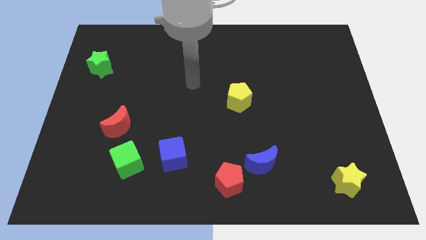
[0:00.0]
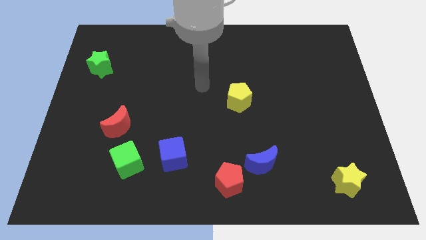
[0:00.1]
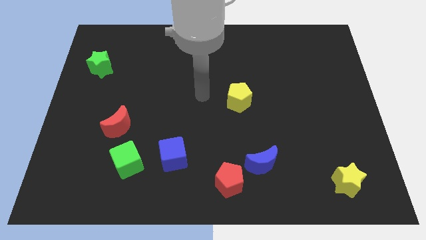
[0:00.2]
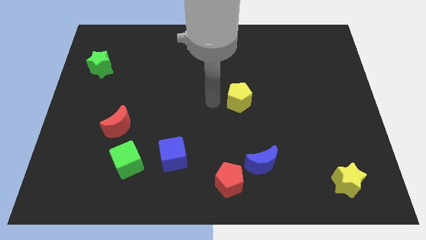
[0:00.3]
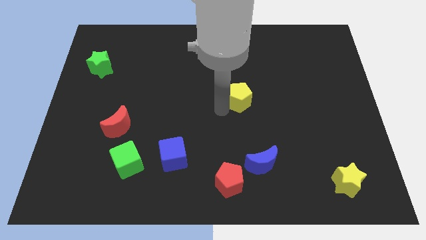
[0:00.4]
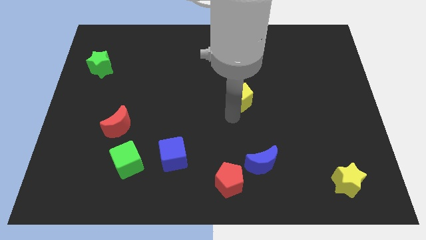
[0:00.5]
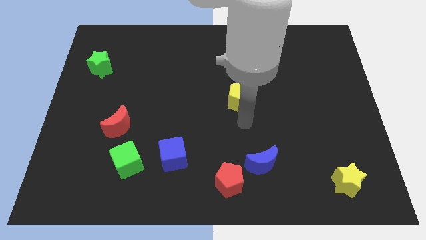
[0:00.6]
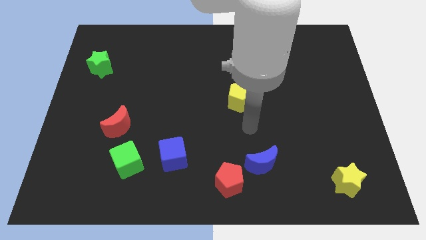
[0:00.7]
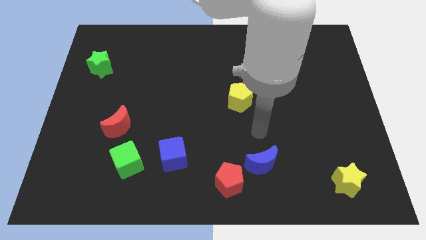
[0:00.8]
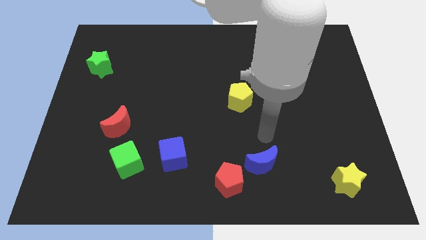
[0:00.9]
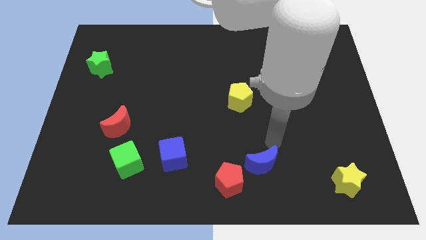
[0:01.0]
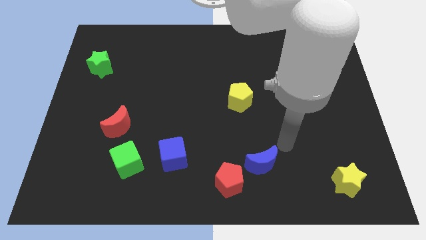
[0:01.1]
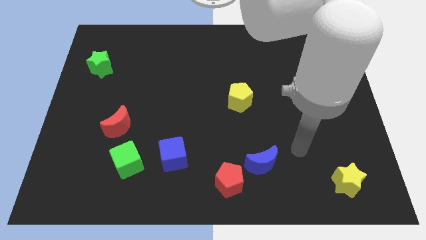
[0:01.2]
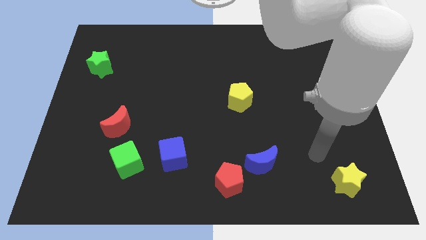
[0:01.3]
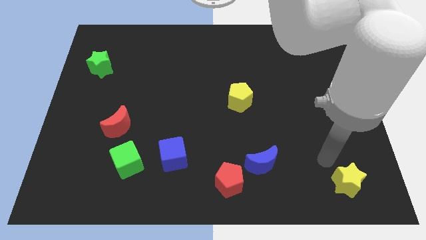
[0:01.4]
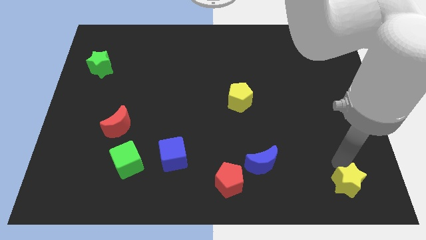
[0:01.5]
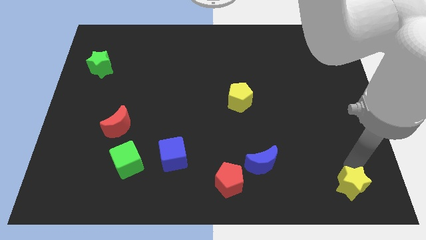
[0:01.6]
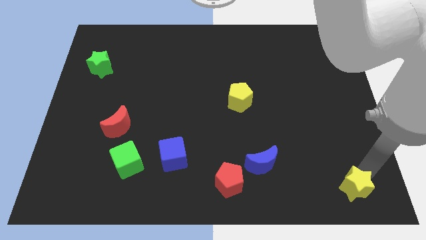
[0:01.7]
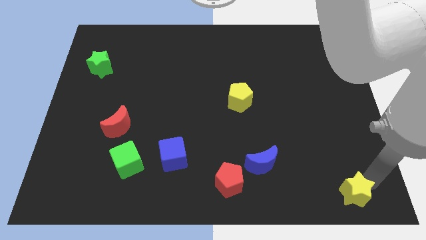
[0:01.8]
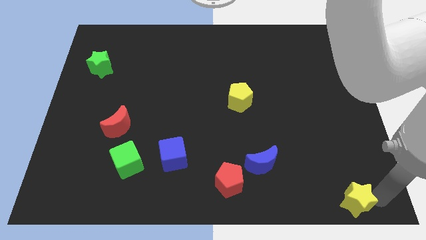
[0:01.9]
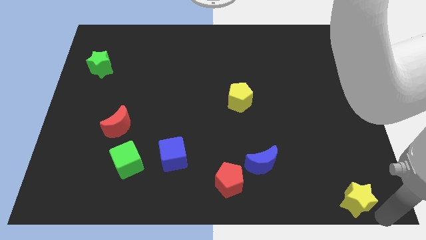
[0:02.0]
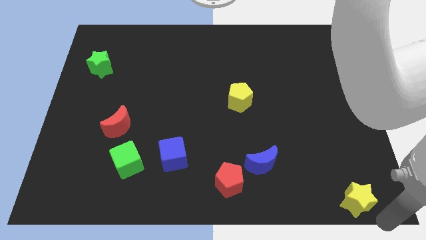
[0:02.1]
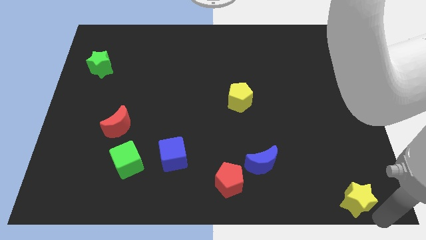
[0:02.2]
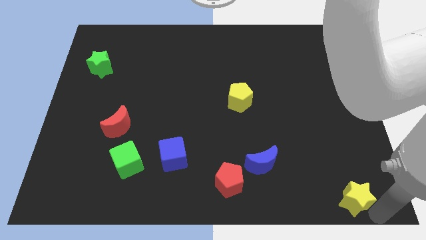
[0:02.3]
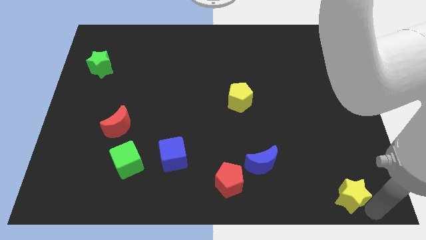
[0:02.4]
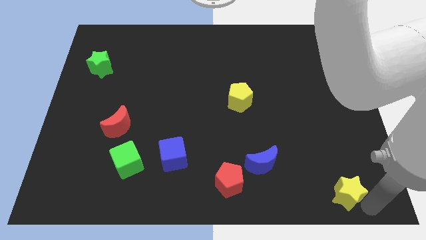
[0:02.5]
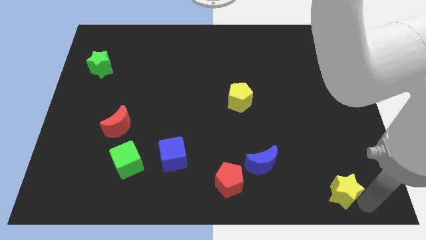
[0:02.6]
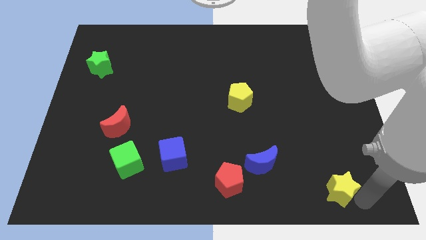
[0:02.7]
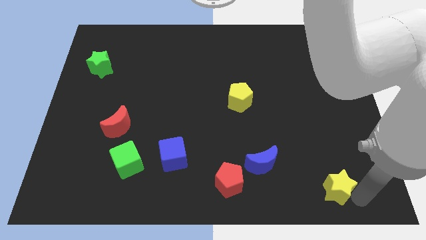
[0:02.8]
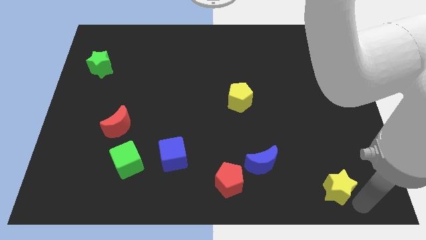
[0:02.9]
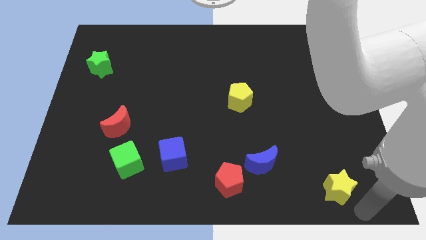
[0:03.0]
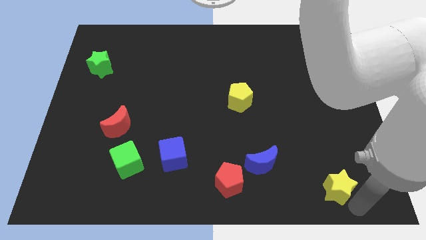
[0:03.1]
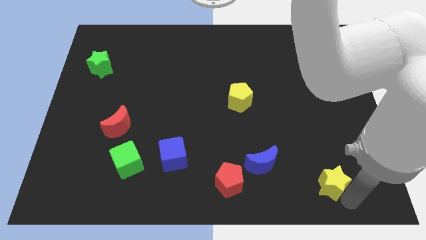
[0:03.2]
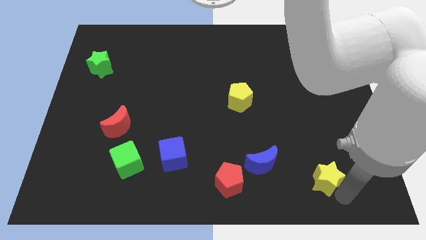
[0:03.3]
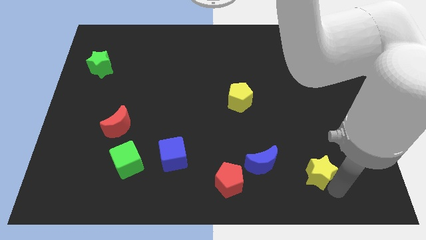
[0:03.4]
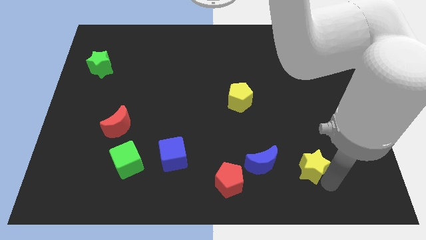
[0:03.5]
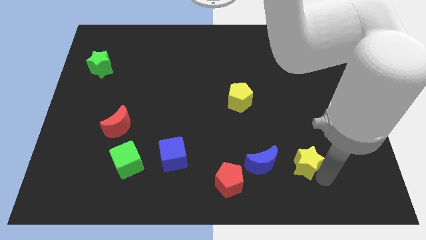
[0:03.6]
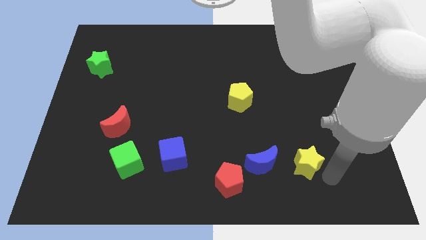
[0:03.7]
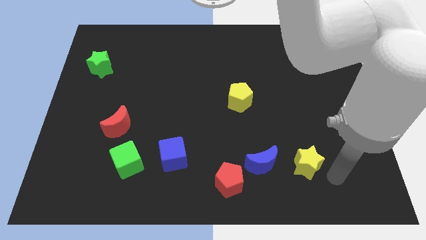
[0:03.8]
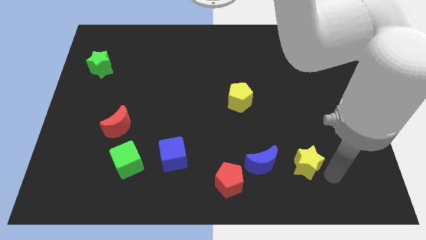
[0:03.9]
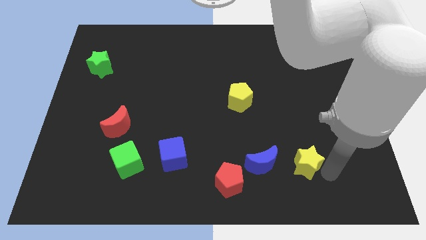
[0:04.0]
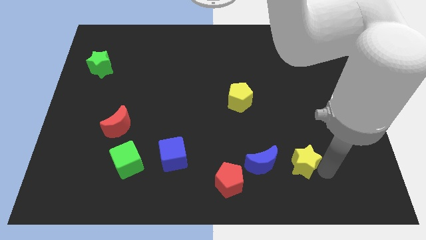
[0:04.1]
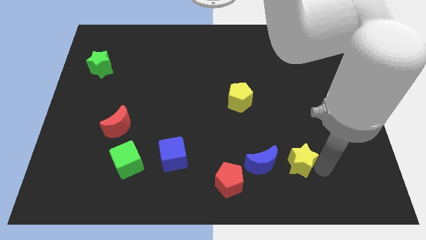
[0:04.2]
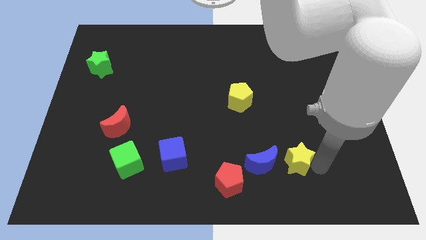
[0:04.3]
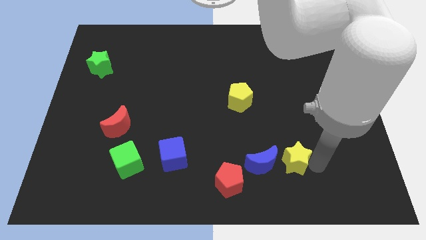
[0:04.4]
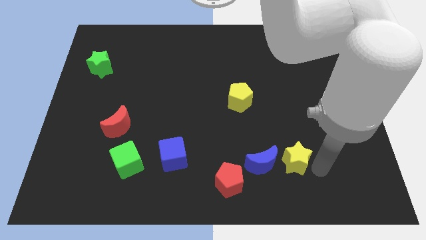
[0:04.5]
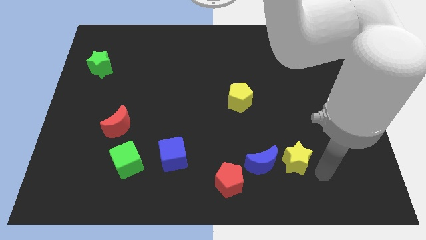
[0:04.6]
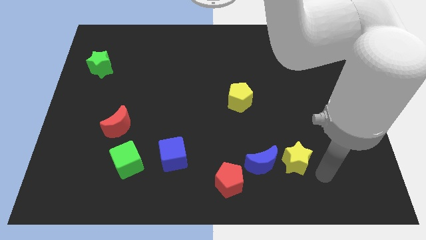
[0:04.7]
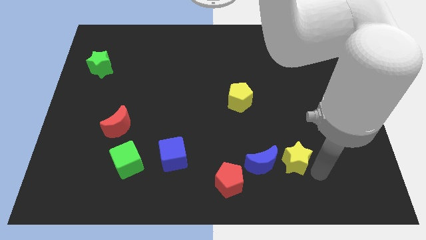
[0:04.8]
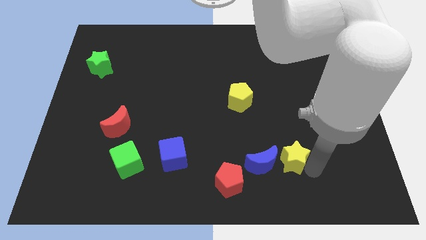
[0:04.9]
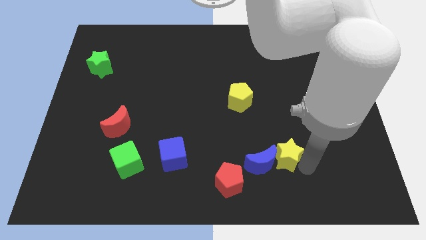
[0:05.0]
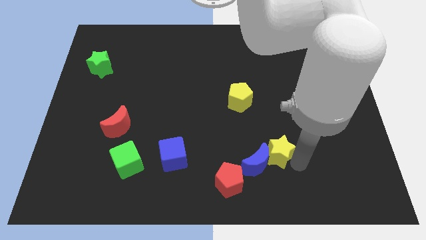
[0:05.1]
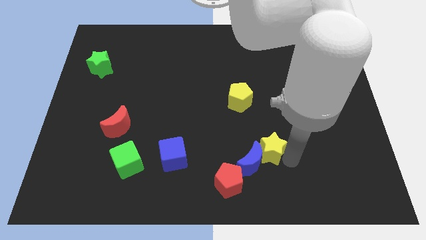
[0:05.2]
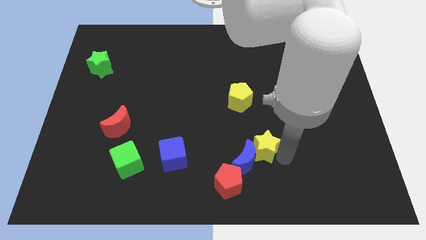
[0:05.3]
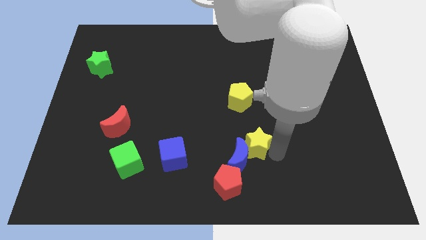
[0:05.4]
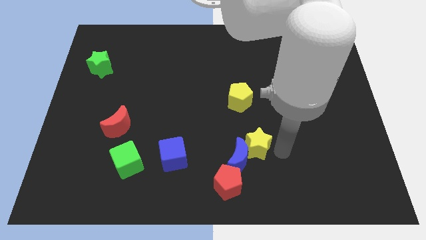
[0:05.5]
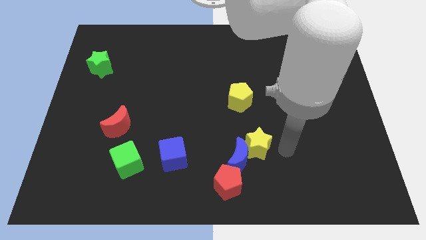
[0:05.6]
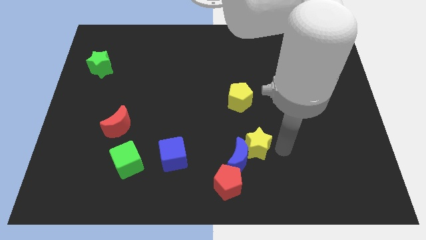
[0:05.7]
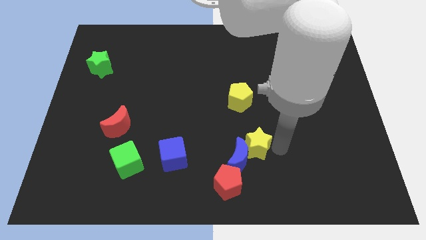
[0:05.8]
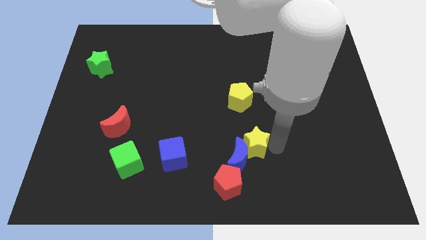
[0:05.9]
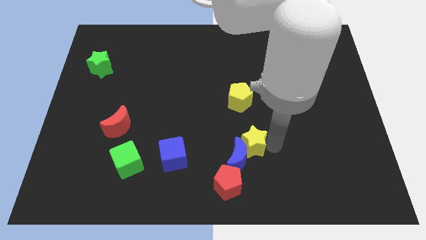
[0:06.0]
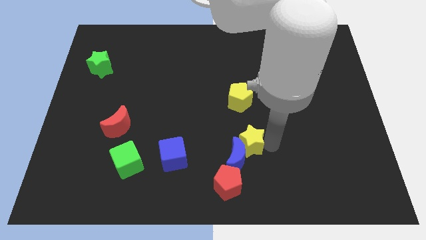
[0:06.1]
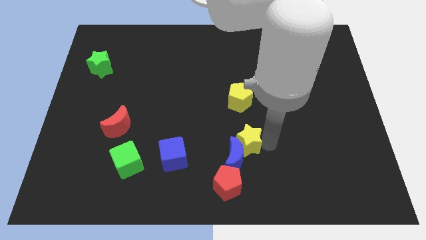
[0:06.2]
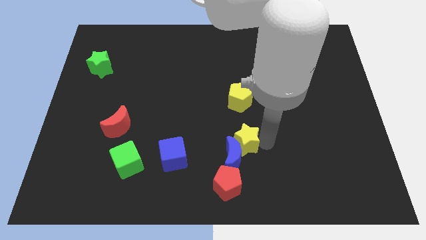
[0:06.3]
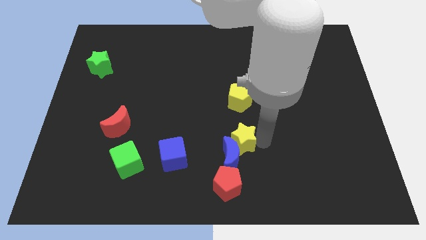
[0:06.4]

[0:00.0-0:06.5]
slide the yellow star right of the blue cube

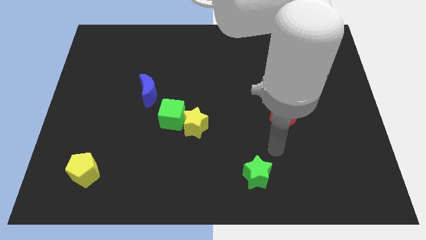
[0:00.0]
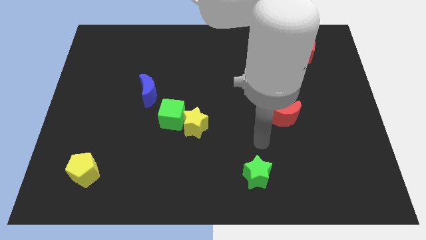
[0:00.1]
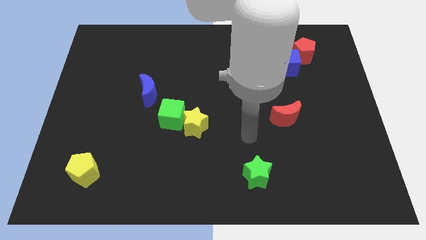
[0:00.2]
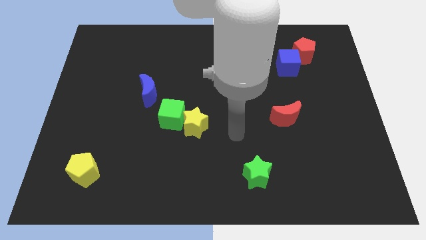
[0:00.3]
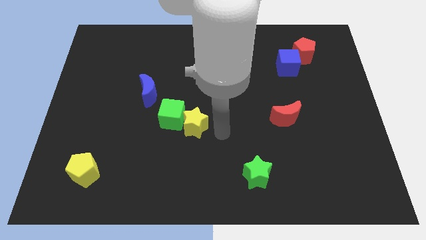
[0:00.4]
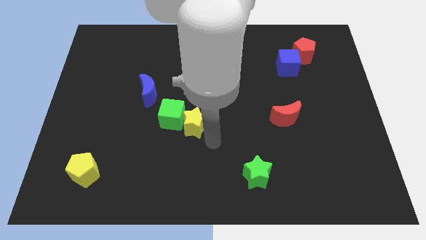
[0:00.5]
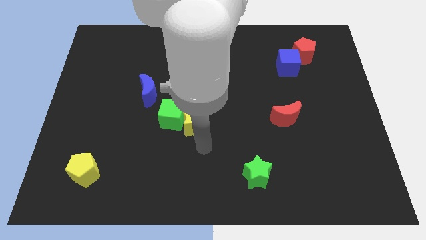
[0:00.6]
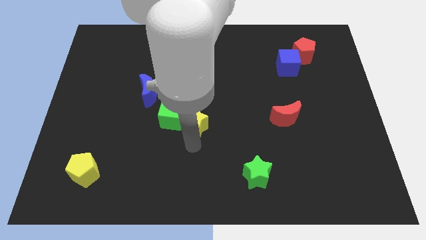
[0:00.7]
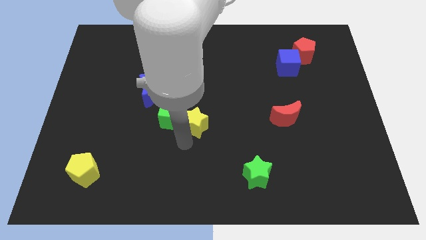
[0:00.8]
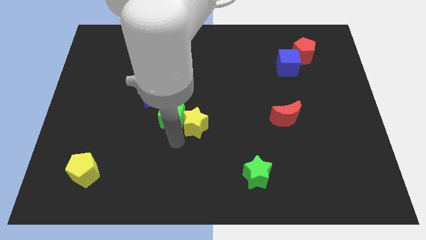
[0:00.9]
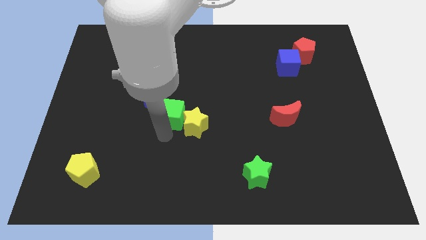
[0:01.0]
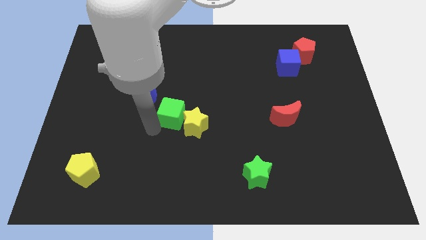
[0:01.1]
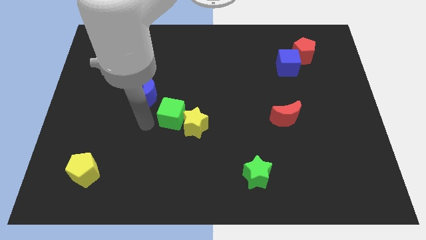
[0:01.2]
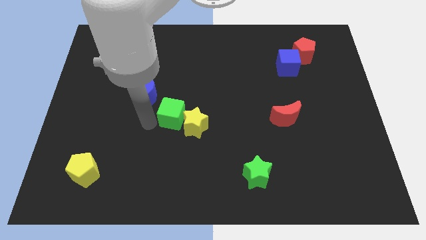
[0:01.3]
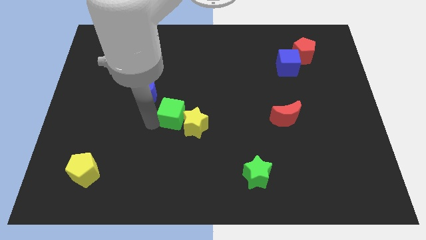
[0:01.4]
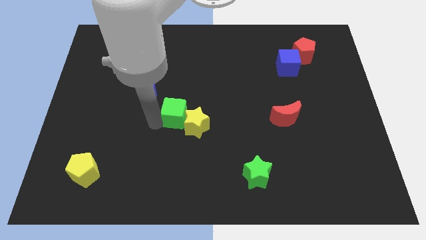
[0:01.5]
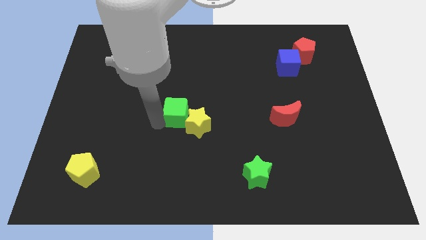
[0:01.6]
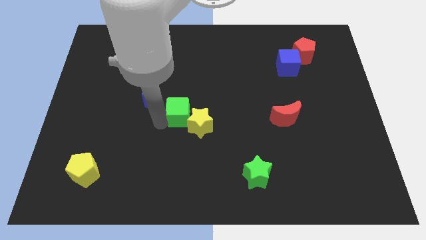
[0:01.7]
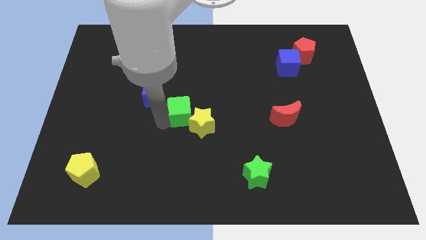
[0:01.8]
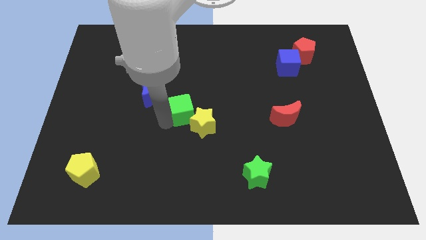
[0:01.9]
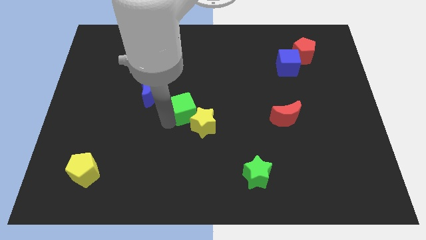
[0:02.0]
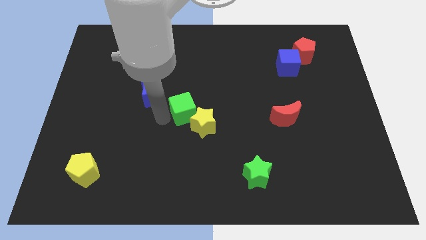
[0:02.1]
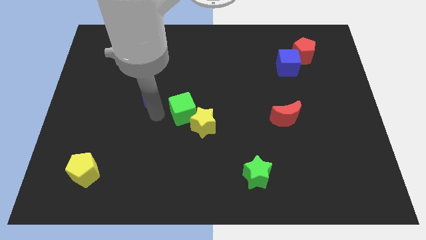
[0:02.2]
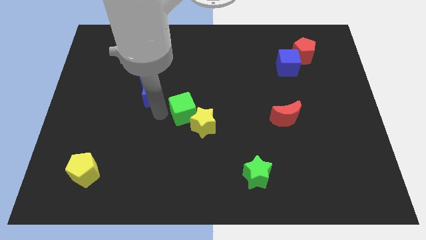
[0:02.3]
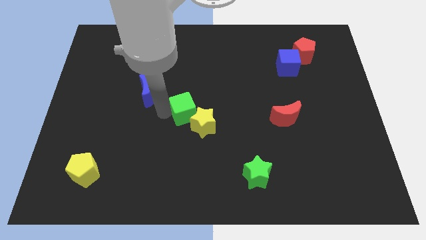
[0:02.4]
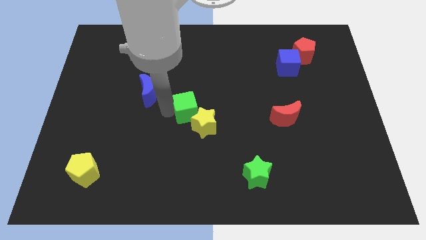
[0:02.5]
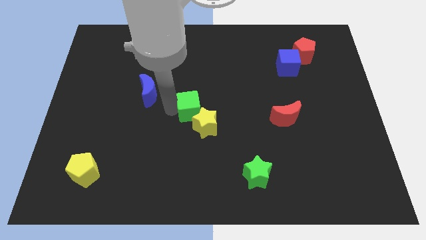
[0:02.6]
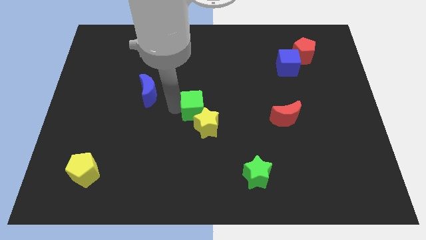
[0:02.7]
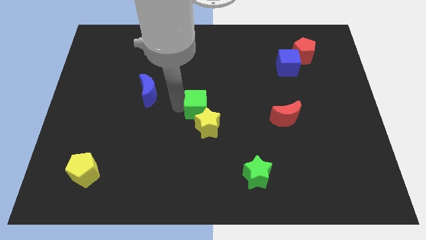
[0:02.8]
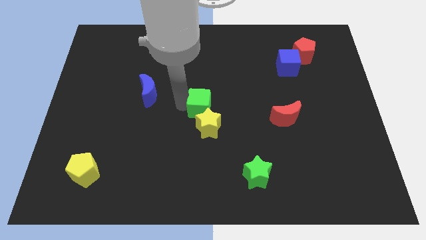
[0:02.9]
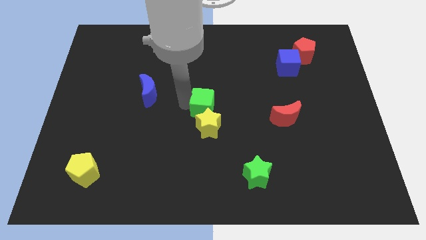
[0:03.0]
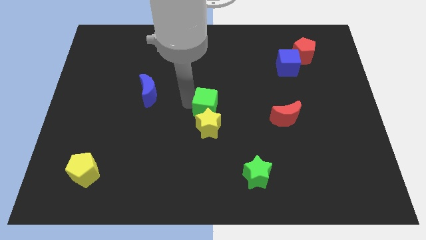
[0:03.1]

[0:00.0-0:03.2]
slide the green cube to the top right of the yellow star
